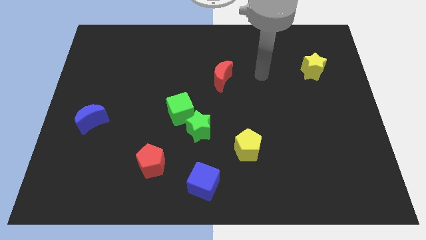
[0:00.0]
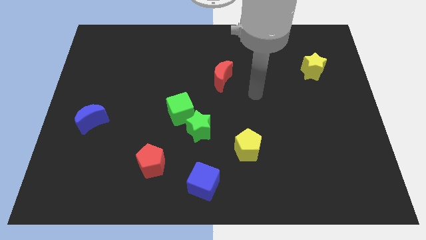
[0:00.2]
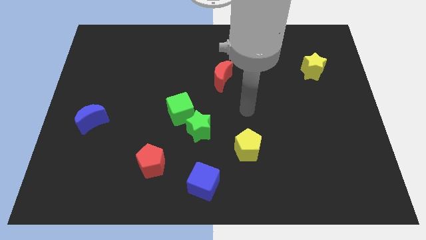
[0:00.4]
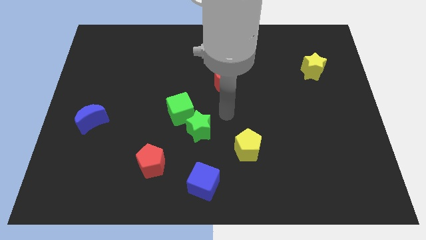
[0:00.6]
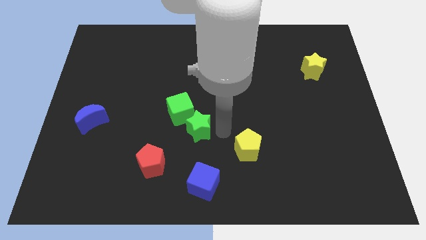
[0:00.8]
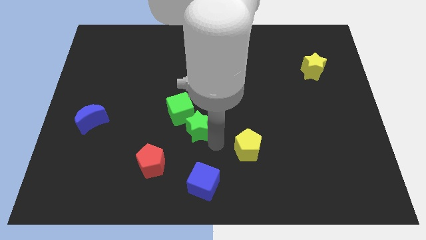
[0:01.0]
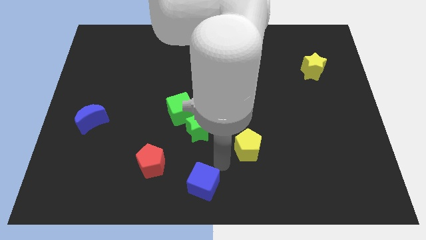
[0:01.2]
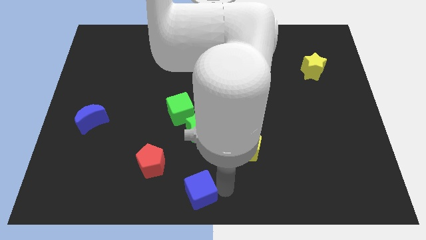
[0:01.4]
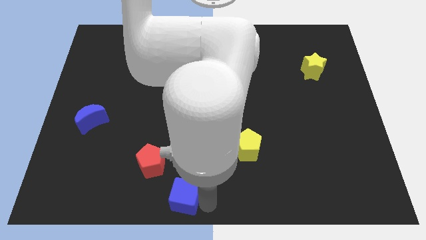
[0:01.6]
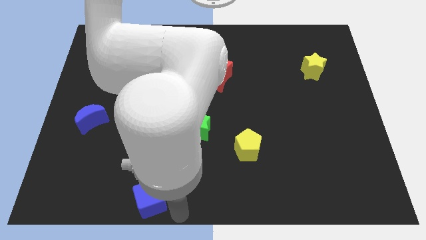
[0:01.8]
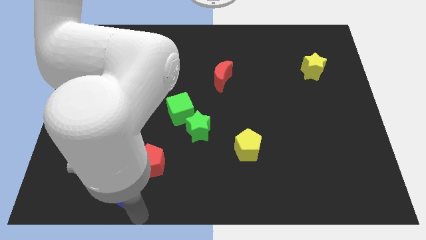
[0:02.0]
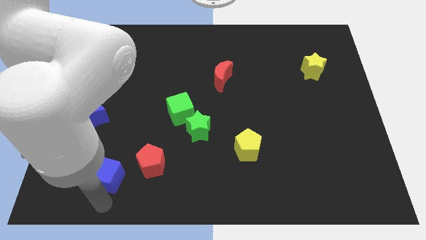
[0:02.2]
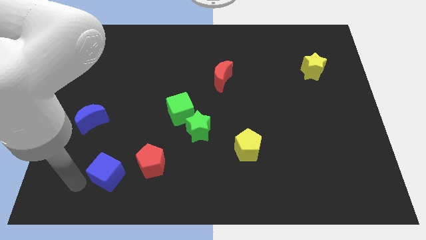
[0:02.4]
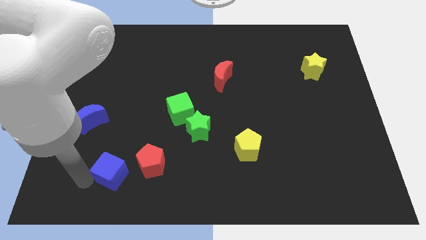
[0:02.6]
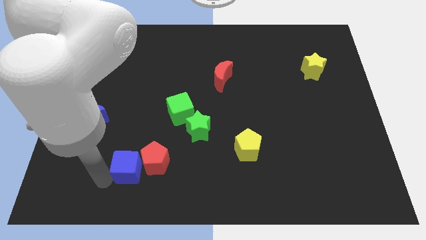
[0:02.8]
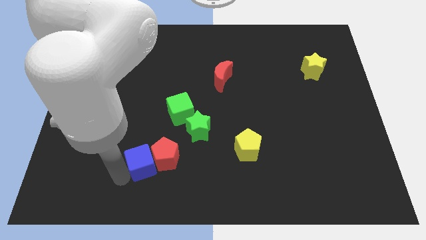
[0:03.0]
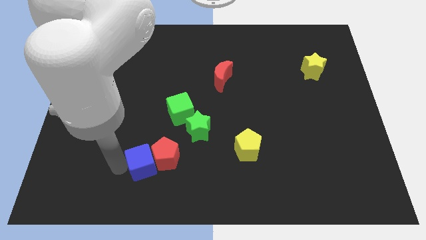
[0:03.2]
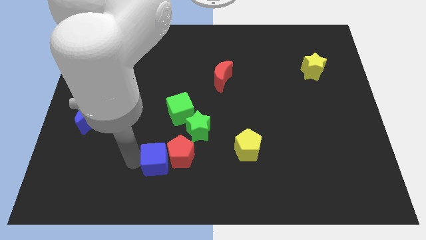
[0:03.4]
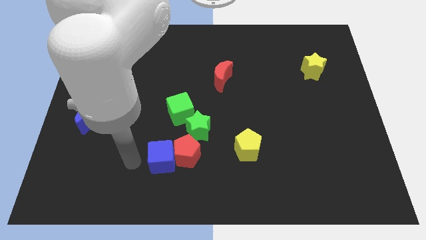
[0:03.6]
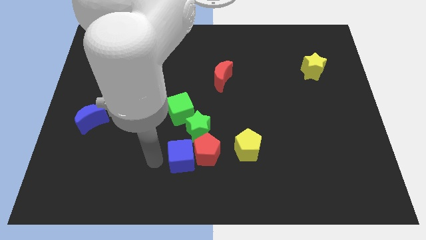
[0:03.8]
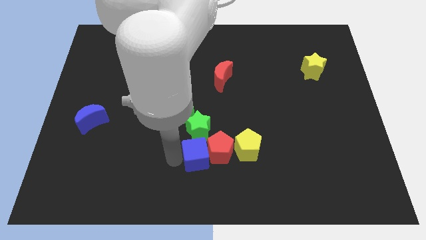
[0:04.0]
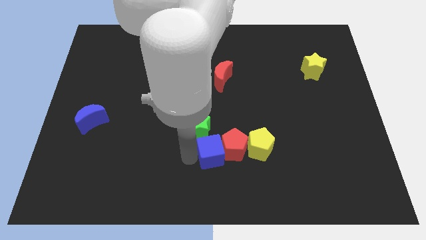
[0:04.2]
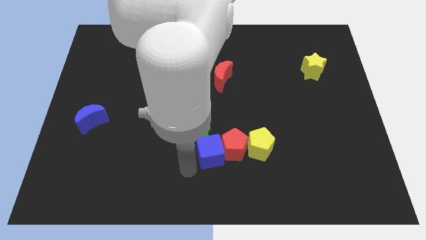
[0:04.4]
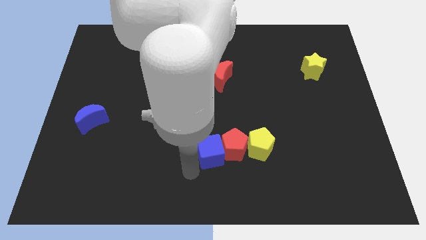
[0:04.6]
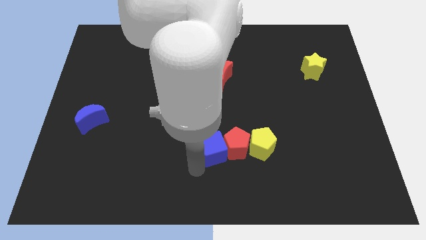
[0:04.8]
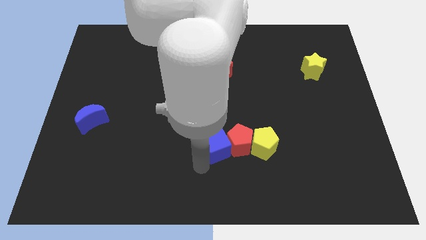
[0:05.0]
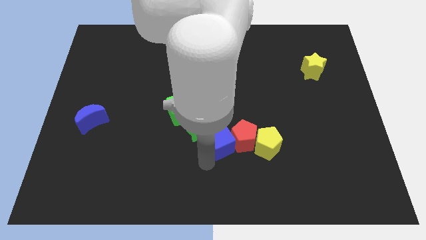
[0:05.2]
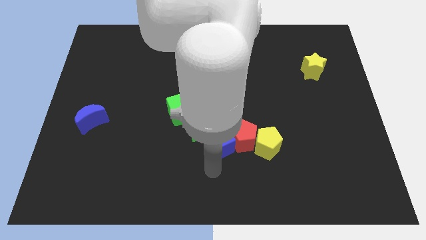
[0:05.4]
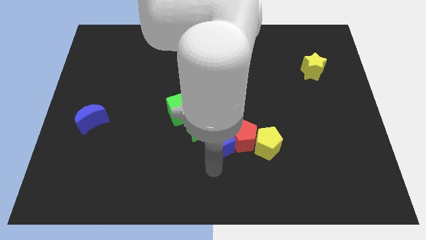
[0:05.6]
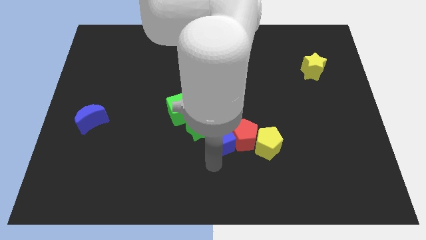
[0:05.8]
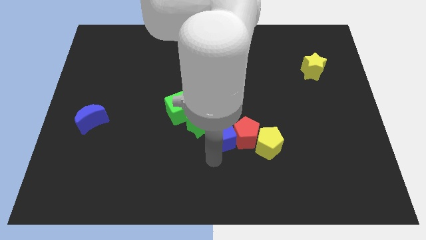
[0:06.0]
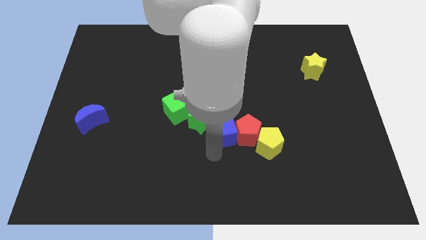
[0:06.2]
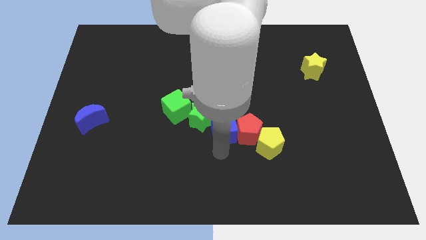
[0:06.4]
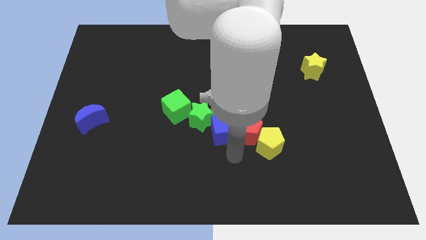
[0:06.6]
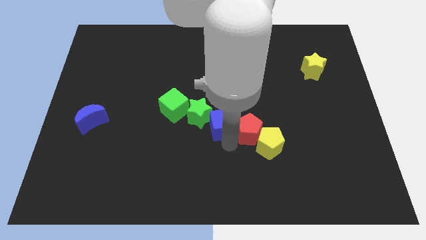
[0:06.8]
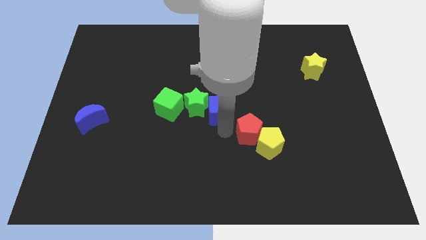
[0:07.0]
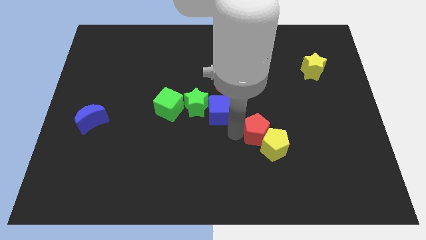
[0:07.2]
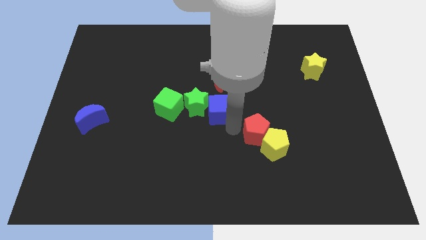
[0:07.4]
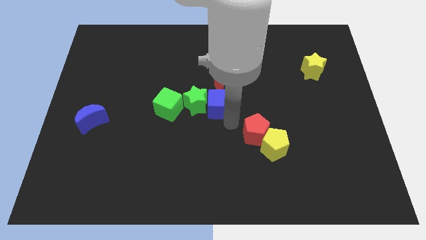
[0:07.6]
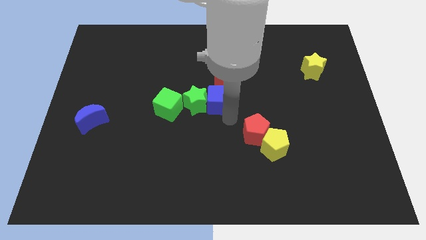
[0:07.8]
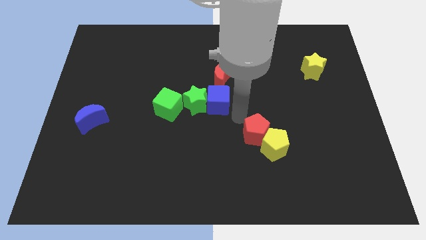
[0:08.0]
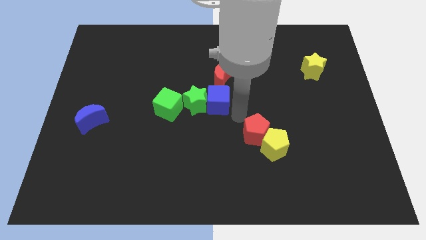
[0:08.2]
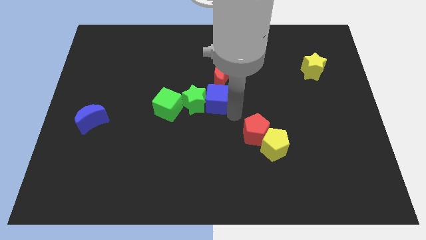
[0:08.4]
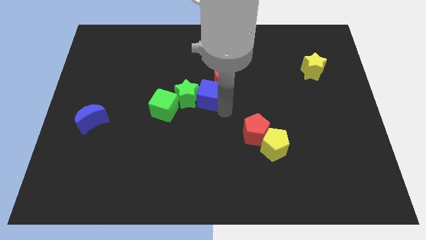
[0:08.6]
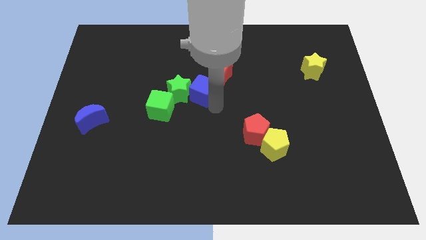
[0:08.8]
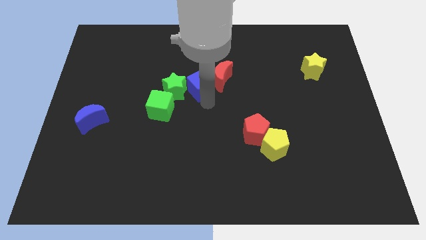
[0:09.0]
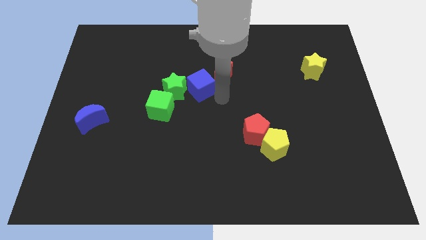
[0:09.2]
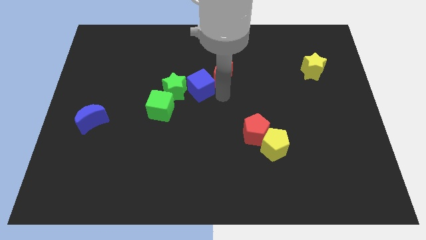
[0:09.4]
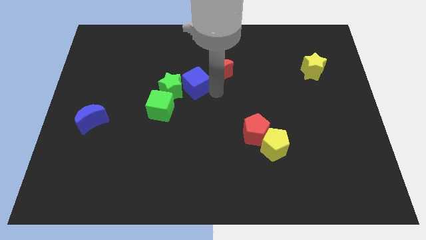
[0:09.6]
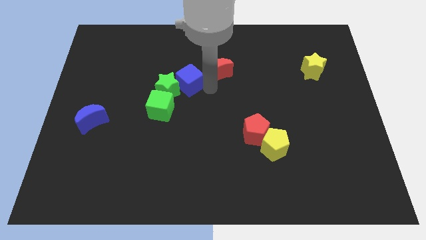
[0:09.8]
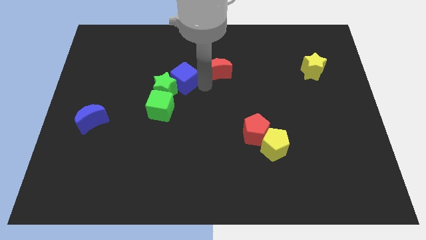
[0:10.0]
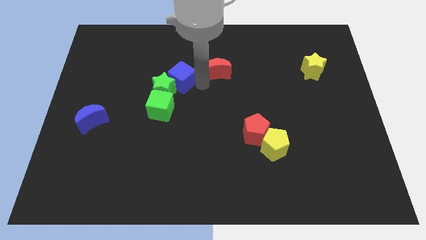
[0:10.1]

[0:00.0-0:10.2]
slide the blue cube to the top side of the green cube

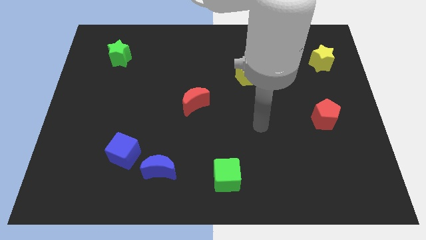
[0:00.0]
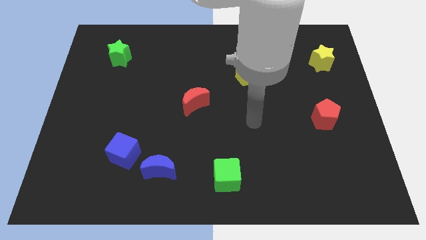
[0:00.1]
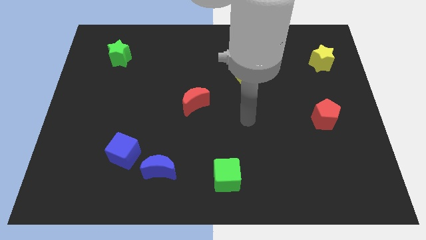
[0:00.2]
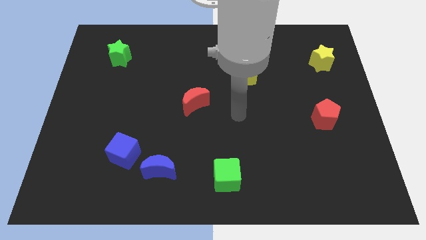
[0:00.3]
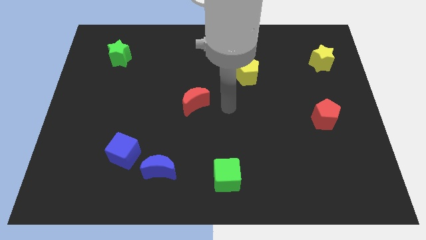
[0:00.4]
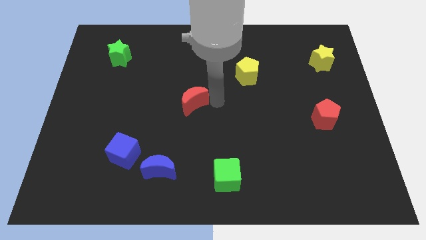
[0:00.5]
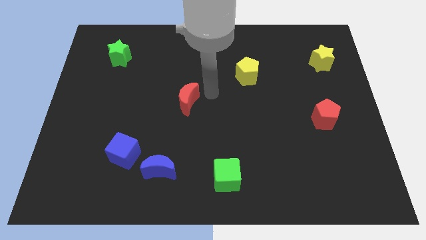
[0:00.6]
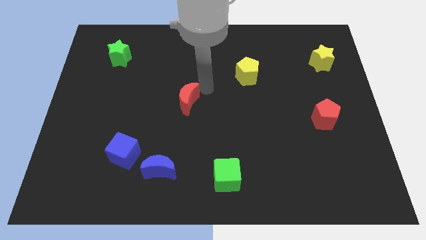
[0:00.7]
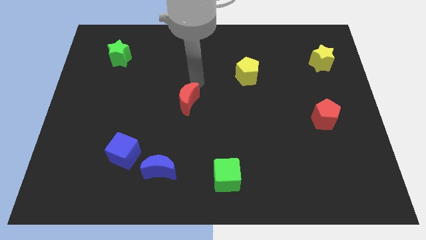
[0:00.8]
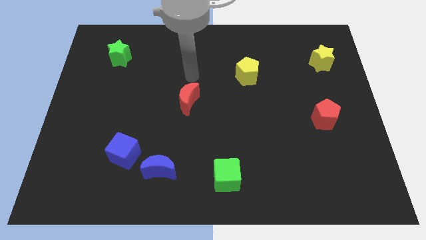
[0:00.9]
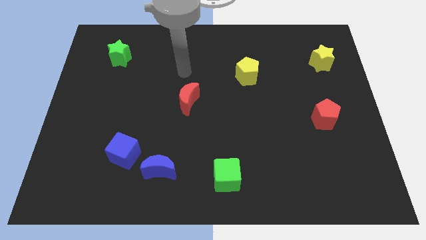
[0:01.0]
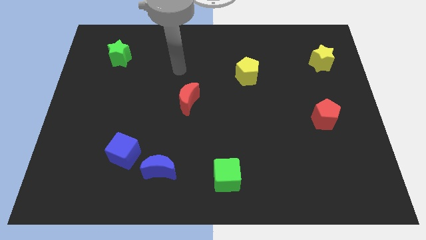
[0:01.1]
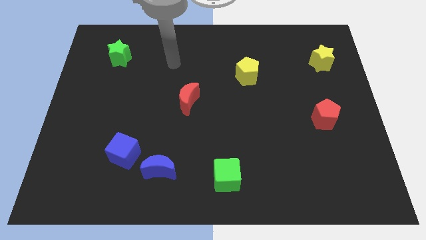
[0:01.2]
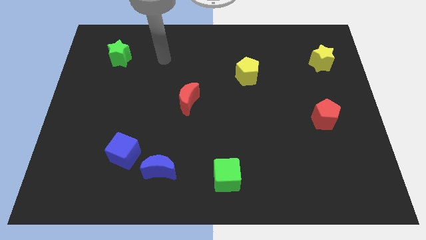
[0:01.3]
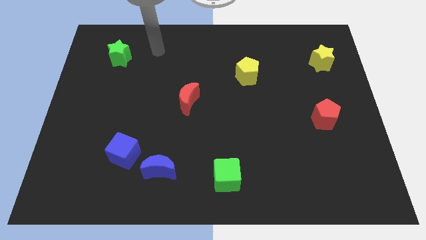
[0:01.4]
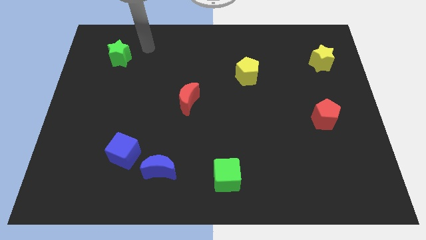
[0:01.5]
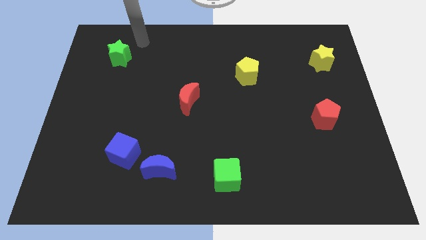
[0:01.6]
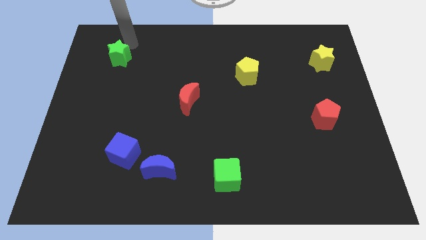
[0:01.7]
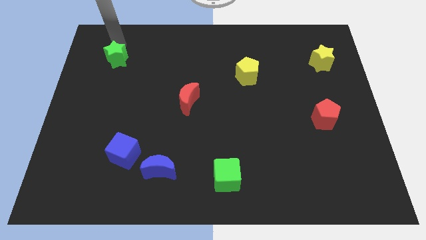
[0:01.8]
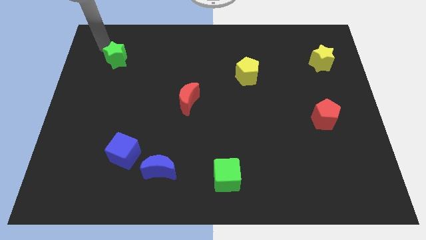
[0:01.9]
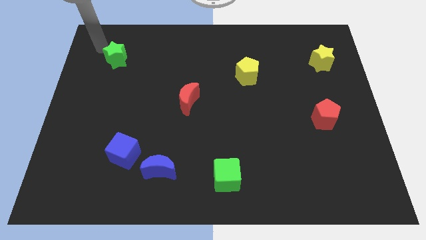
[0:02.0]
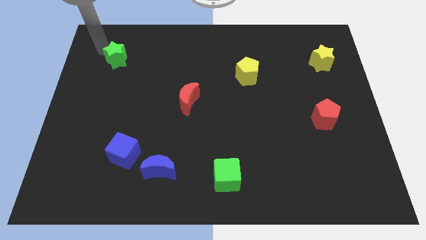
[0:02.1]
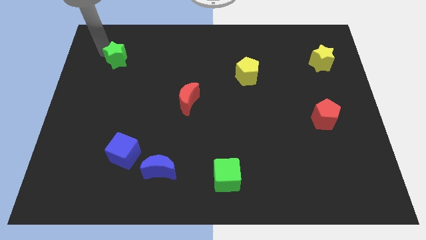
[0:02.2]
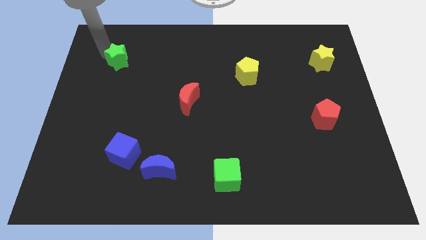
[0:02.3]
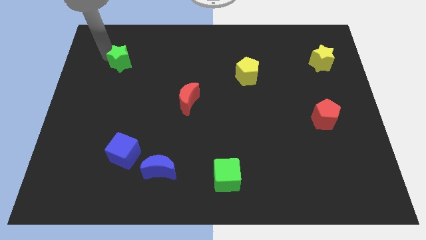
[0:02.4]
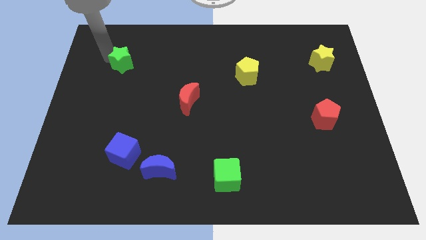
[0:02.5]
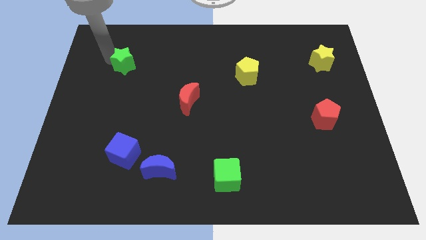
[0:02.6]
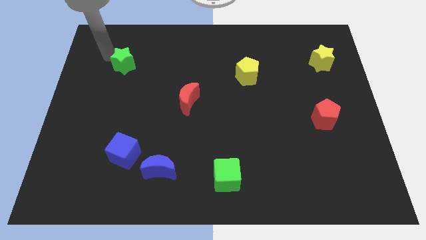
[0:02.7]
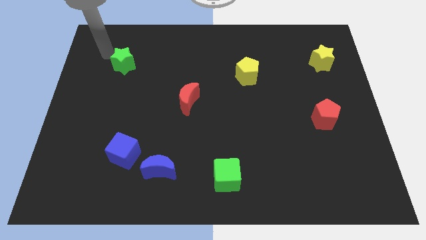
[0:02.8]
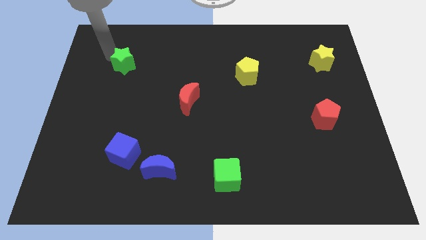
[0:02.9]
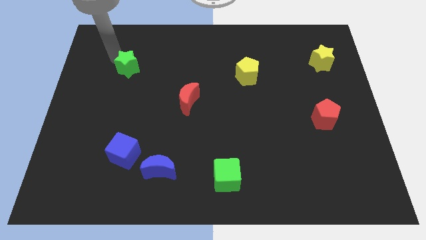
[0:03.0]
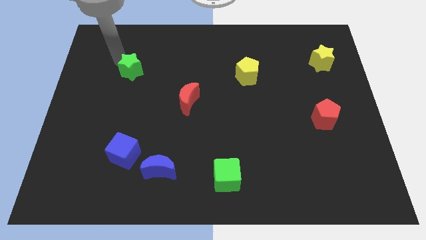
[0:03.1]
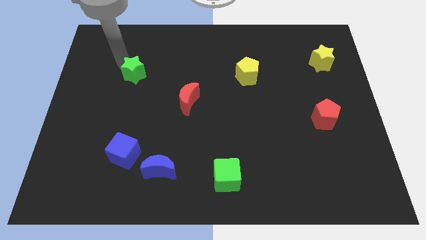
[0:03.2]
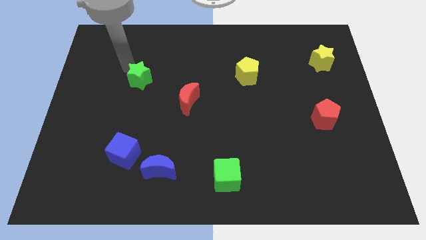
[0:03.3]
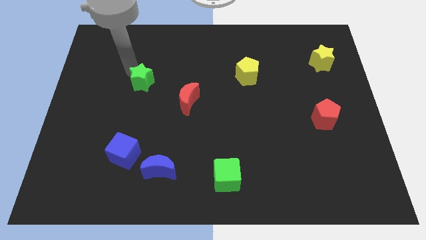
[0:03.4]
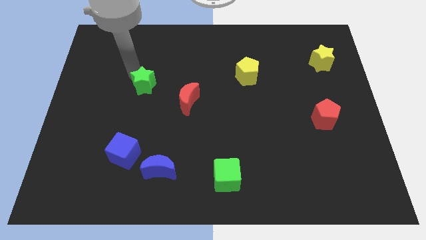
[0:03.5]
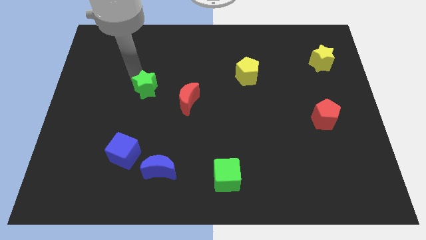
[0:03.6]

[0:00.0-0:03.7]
push the green star to the top left side of the red moon
